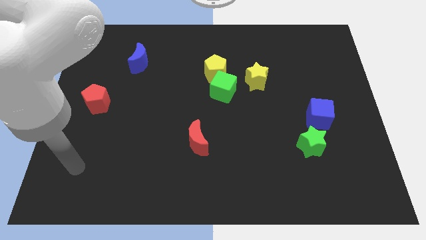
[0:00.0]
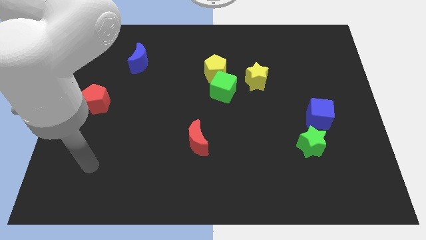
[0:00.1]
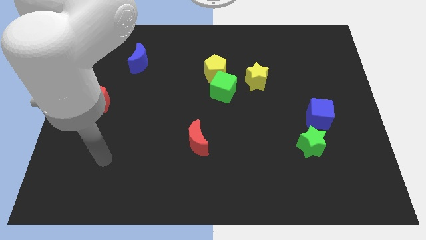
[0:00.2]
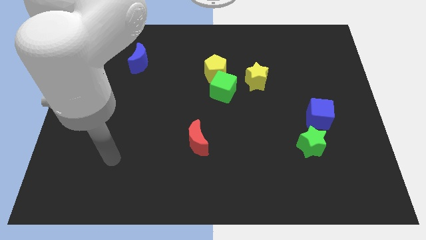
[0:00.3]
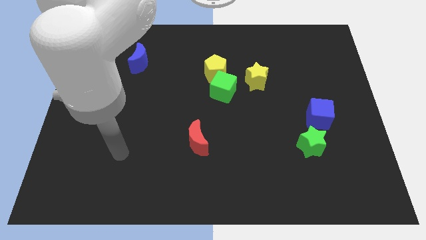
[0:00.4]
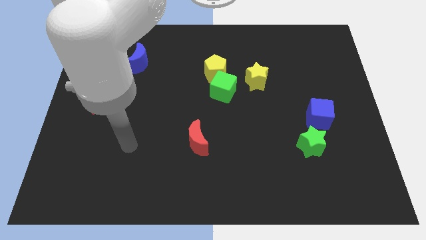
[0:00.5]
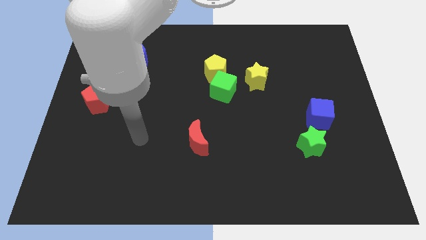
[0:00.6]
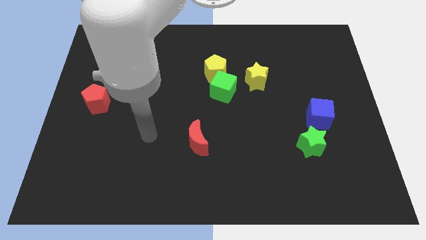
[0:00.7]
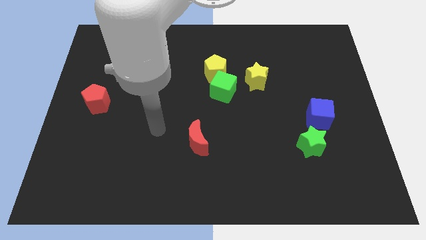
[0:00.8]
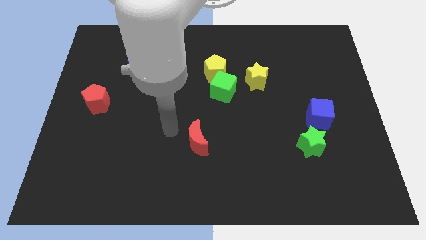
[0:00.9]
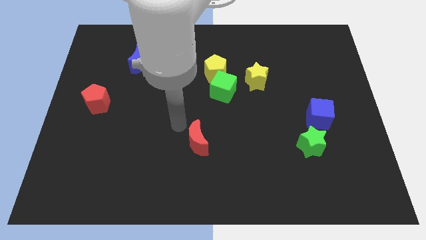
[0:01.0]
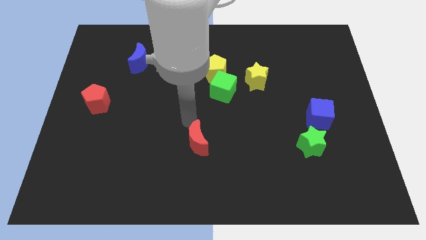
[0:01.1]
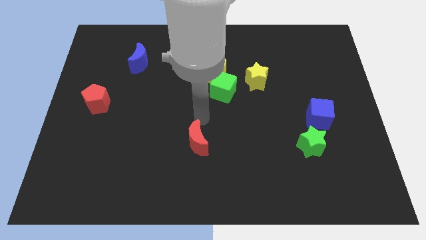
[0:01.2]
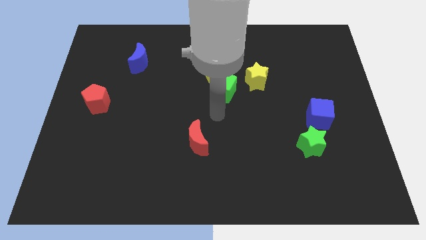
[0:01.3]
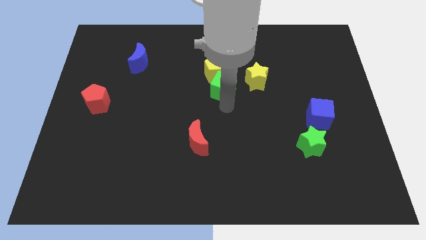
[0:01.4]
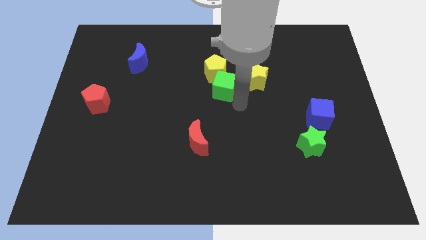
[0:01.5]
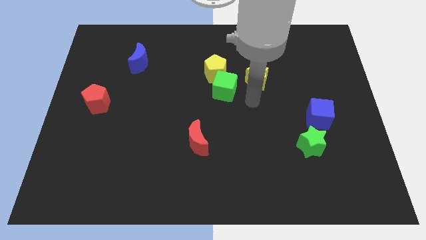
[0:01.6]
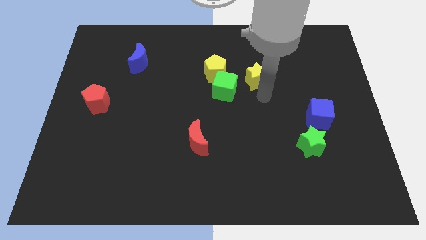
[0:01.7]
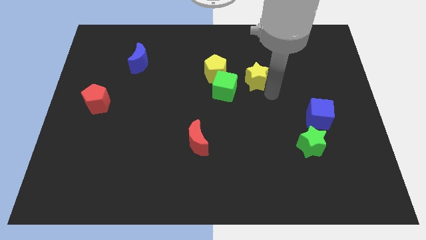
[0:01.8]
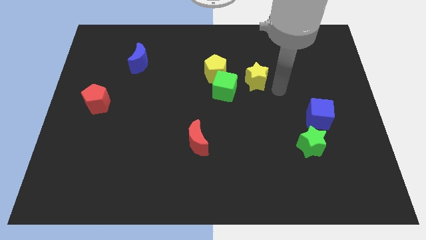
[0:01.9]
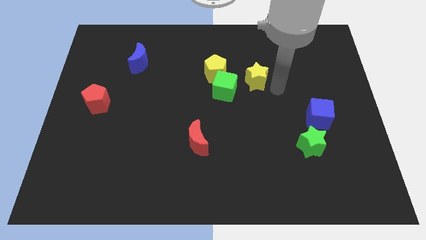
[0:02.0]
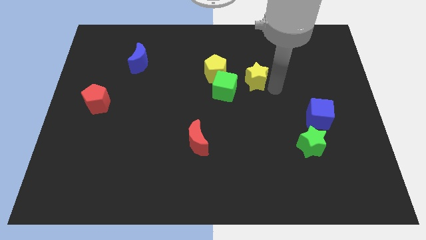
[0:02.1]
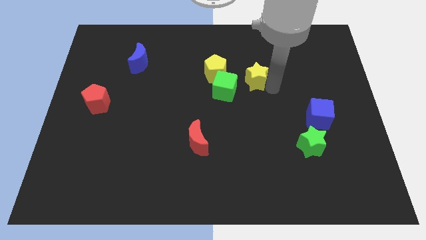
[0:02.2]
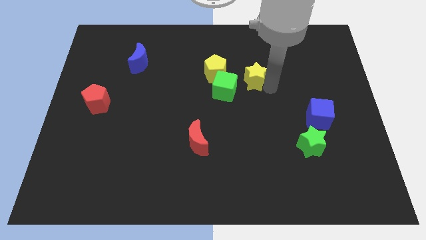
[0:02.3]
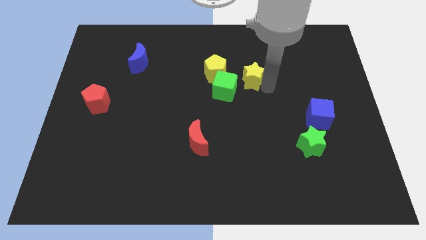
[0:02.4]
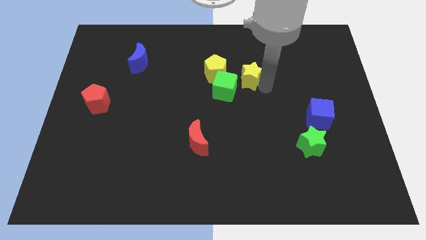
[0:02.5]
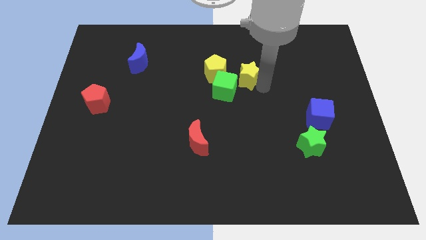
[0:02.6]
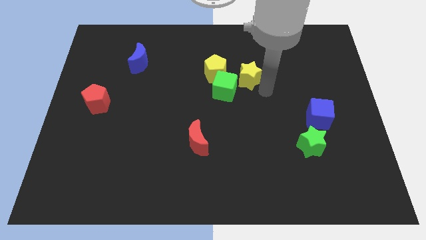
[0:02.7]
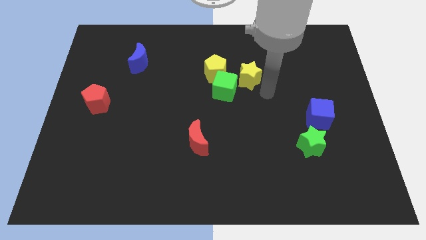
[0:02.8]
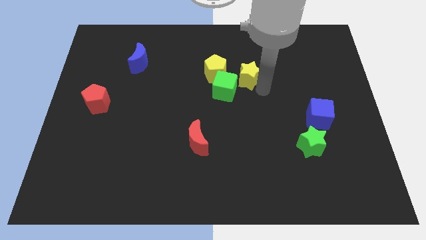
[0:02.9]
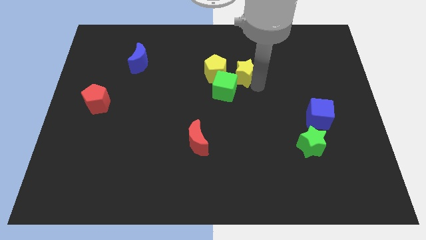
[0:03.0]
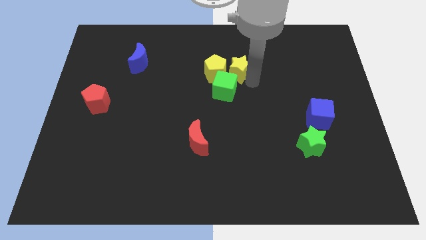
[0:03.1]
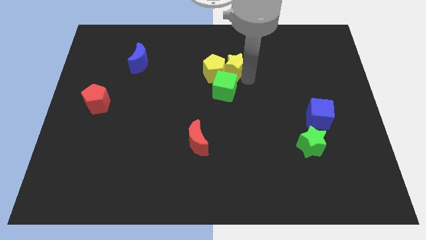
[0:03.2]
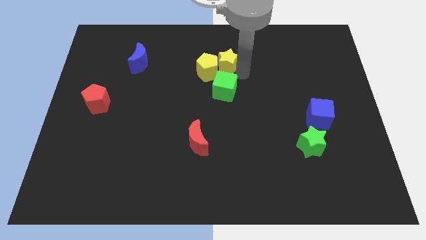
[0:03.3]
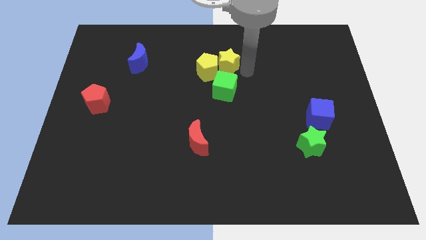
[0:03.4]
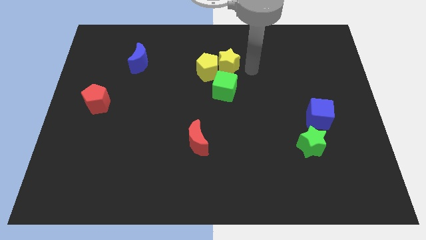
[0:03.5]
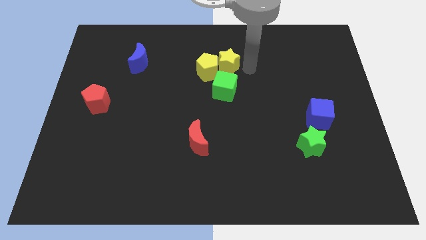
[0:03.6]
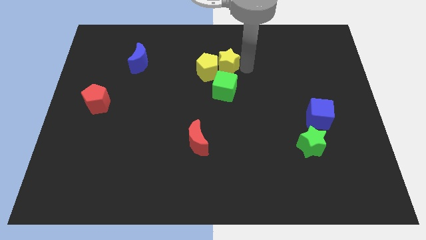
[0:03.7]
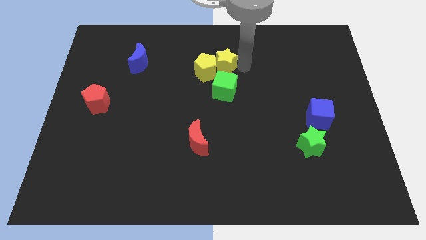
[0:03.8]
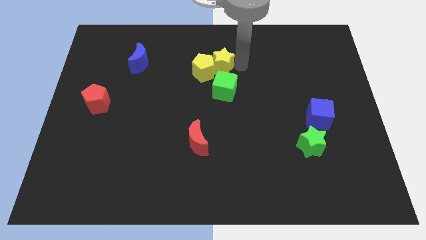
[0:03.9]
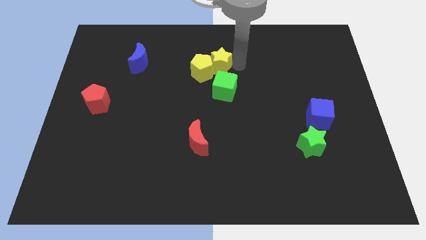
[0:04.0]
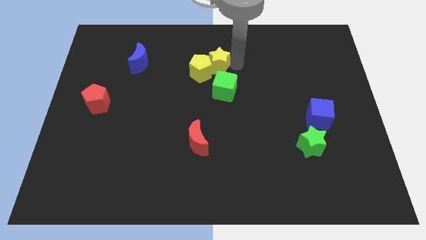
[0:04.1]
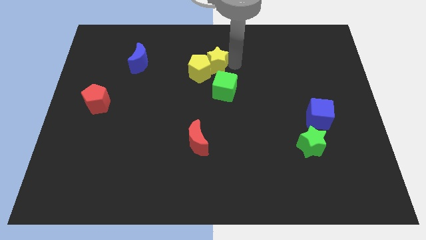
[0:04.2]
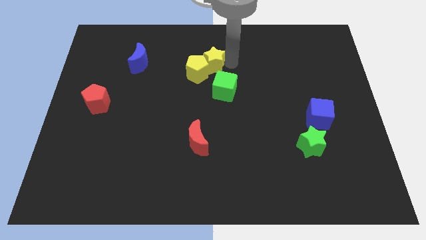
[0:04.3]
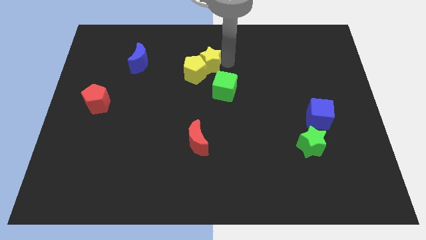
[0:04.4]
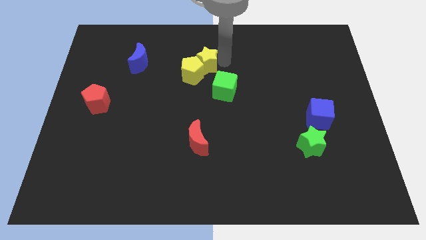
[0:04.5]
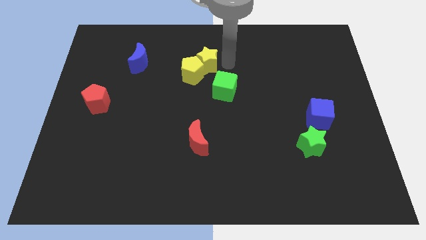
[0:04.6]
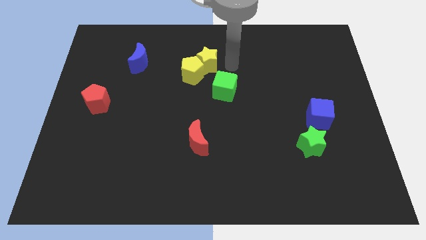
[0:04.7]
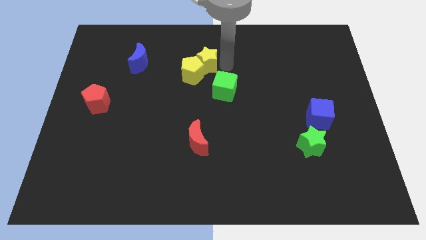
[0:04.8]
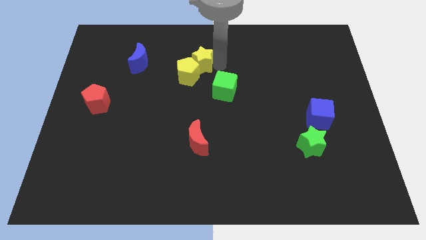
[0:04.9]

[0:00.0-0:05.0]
move the yellow star to the right side of the blue moon

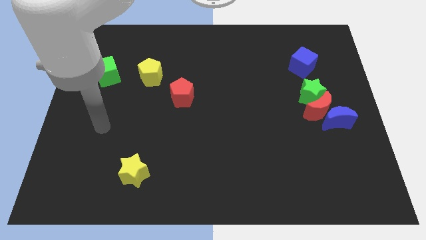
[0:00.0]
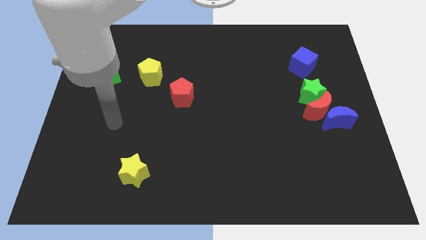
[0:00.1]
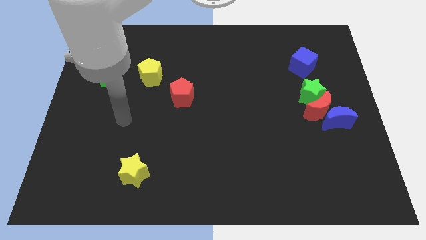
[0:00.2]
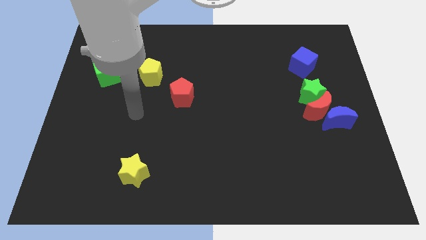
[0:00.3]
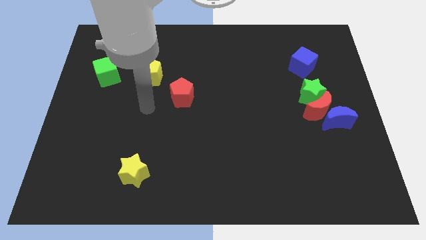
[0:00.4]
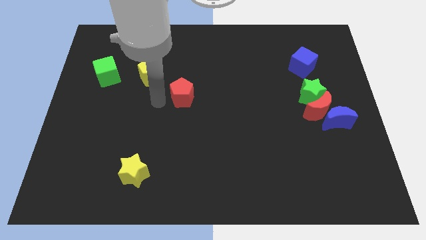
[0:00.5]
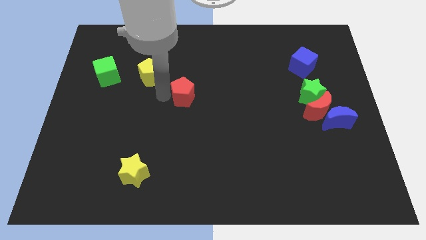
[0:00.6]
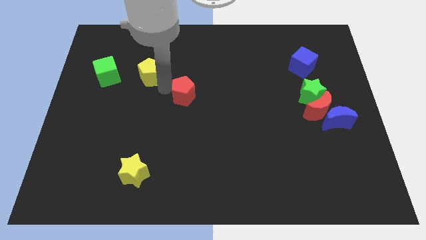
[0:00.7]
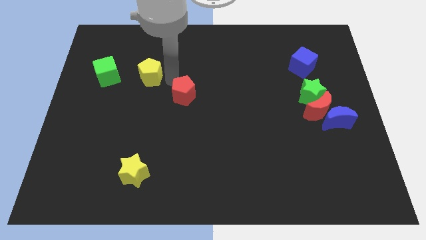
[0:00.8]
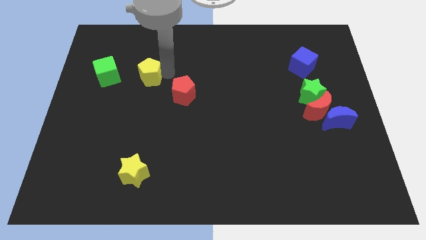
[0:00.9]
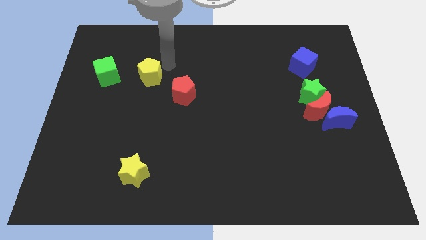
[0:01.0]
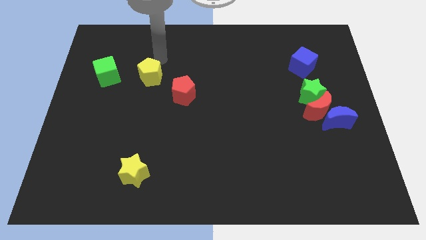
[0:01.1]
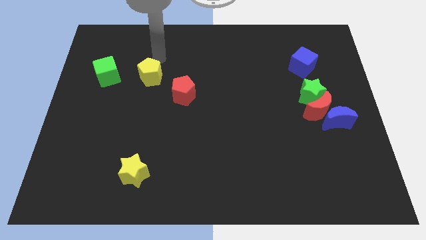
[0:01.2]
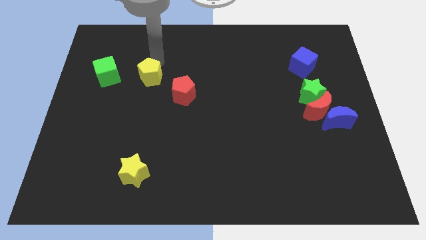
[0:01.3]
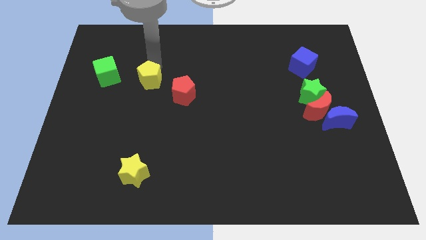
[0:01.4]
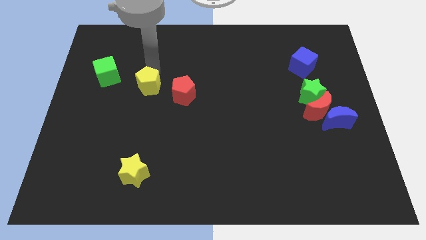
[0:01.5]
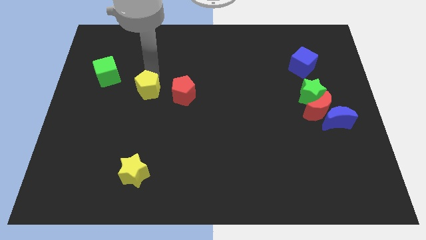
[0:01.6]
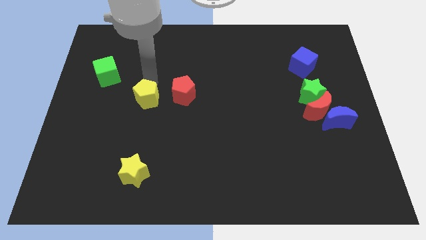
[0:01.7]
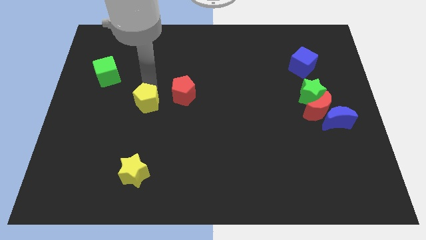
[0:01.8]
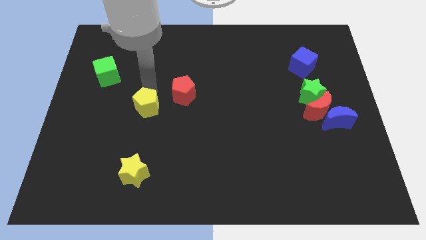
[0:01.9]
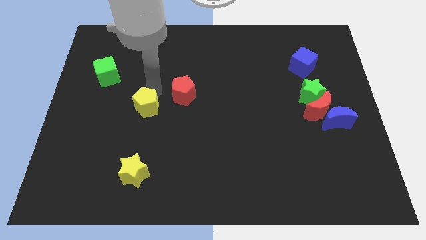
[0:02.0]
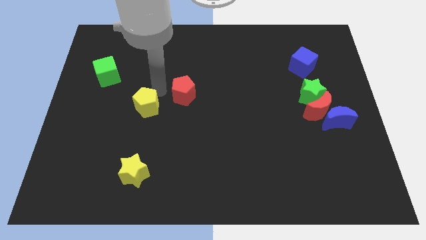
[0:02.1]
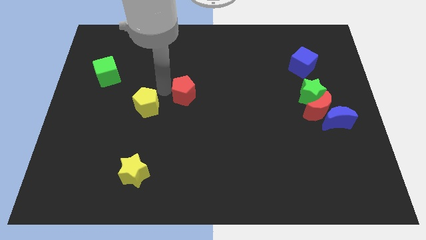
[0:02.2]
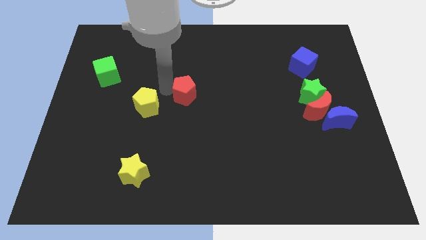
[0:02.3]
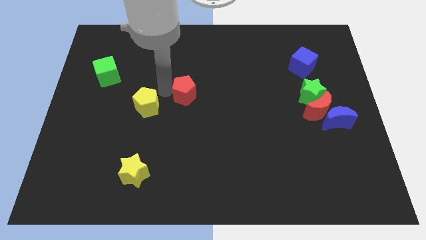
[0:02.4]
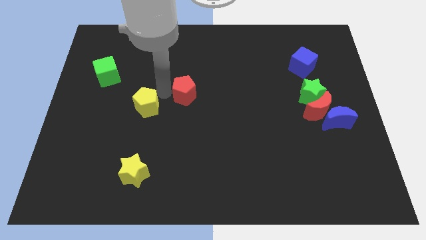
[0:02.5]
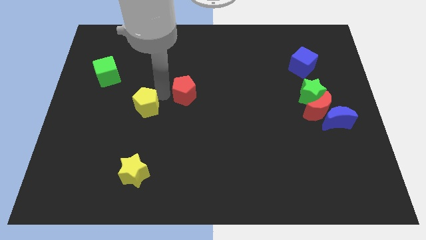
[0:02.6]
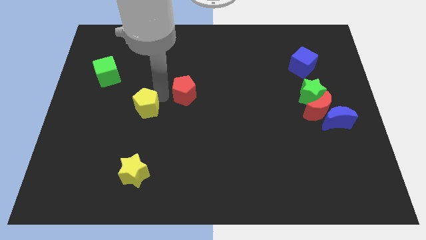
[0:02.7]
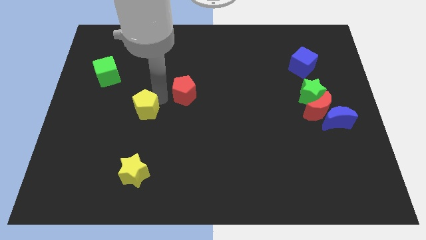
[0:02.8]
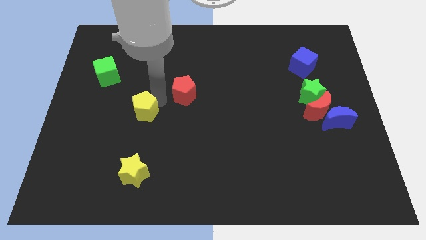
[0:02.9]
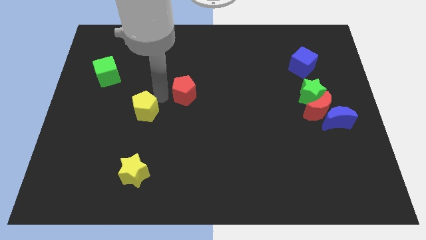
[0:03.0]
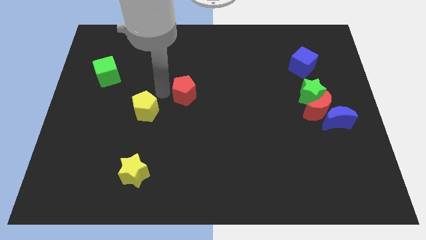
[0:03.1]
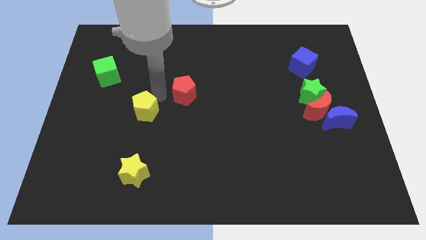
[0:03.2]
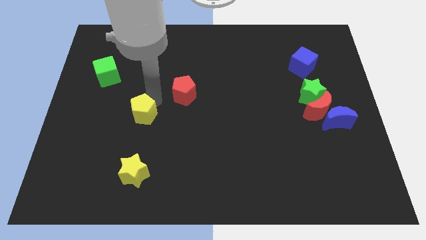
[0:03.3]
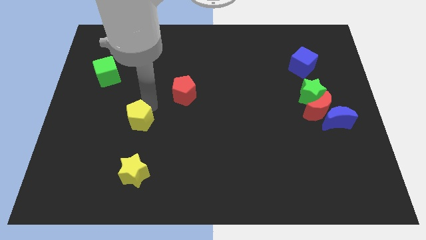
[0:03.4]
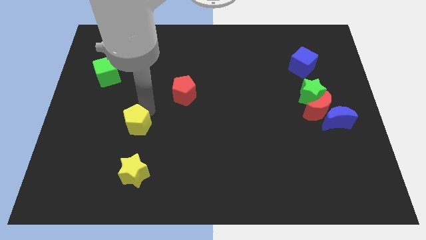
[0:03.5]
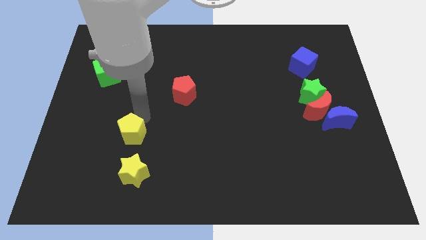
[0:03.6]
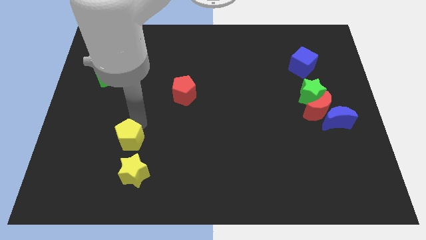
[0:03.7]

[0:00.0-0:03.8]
move the yellow pentagon to the top left of the yellow star
